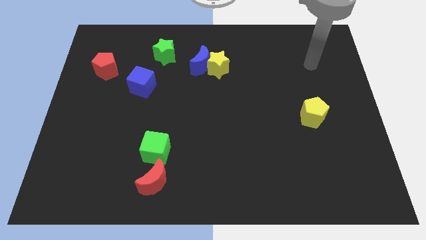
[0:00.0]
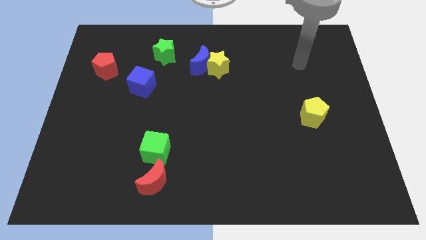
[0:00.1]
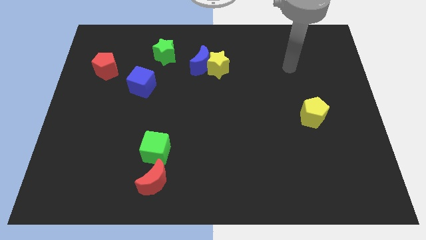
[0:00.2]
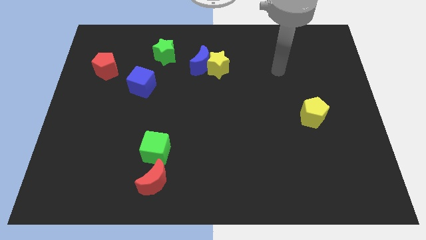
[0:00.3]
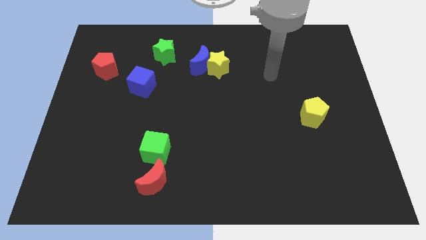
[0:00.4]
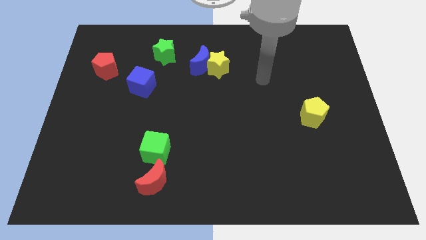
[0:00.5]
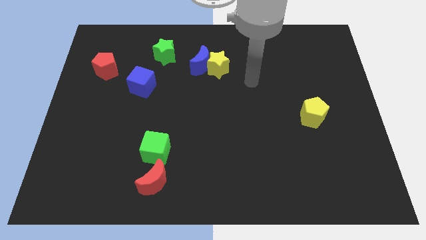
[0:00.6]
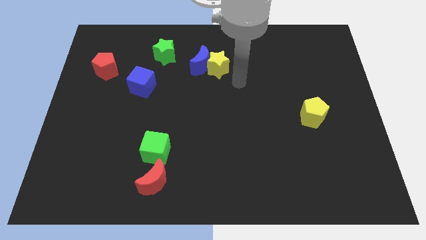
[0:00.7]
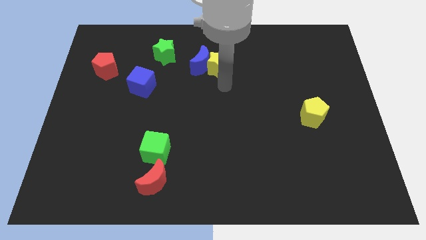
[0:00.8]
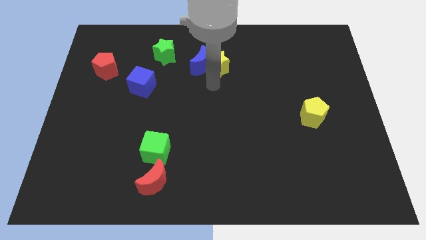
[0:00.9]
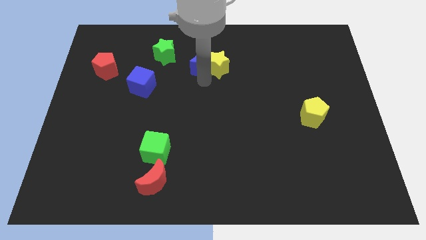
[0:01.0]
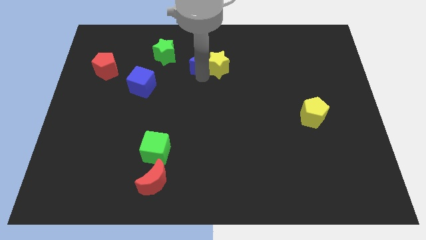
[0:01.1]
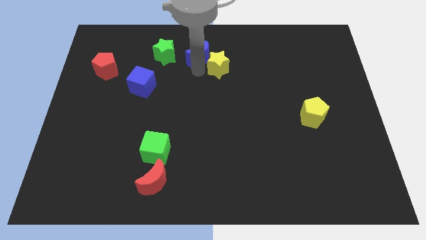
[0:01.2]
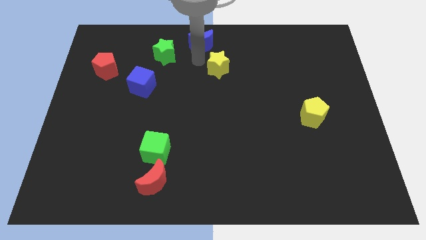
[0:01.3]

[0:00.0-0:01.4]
move the yellow star away from the blue moon

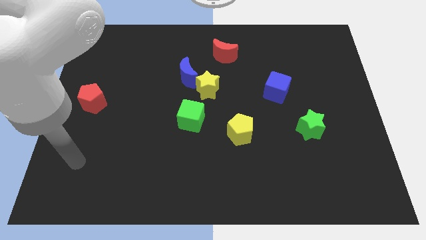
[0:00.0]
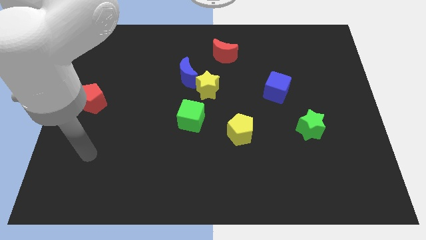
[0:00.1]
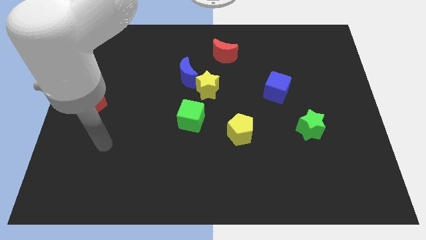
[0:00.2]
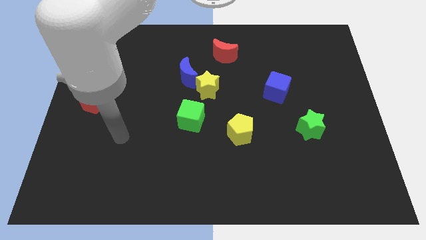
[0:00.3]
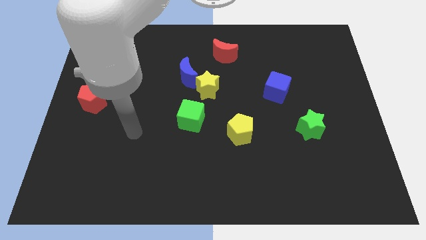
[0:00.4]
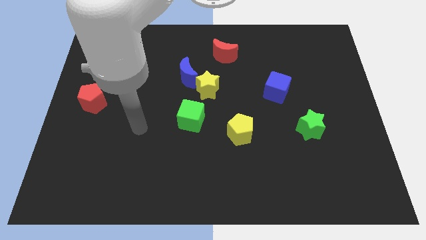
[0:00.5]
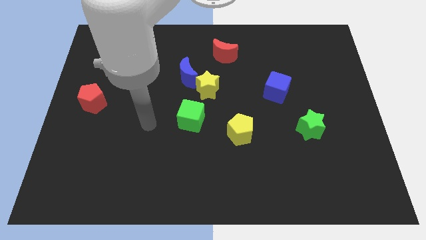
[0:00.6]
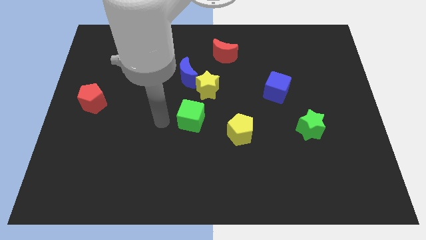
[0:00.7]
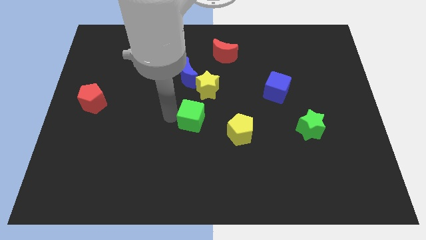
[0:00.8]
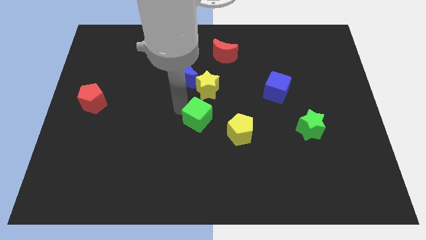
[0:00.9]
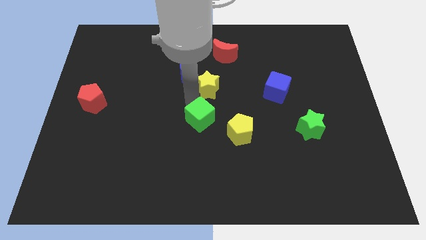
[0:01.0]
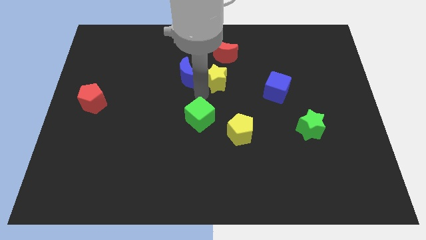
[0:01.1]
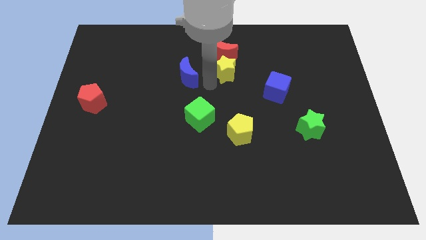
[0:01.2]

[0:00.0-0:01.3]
pull the blue moon apart from the yellow star

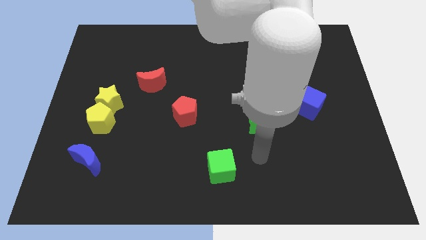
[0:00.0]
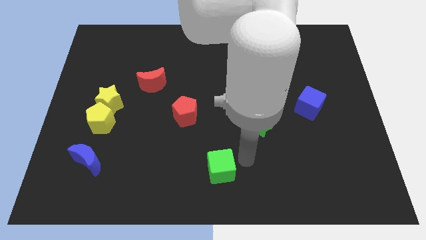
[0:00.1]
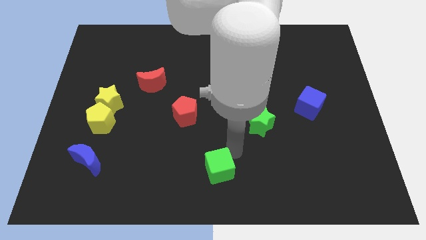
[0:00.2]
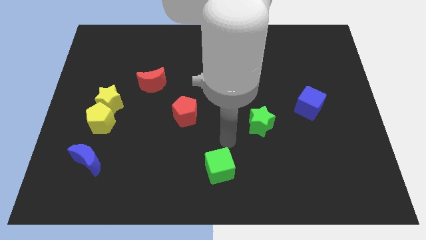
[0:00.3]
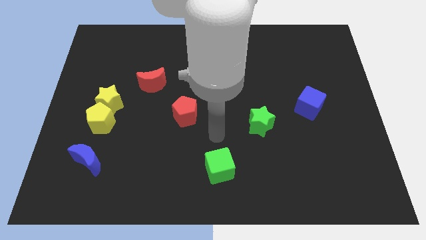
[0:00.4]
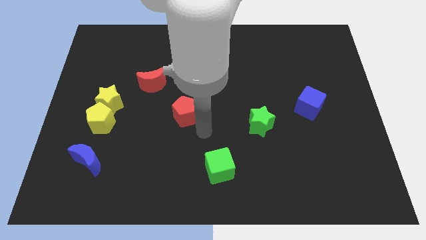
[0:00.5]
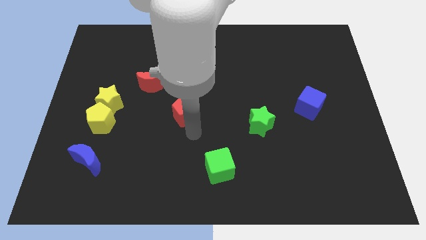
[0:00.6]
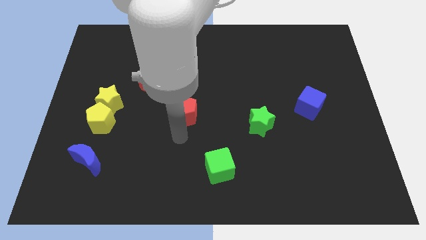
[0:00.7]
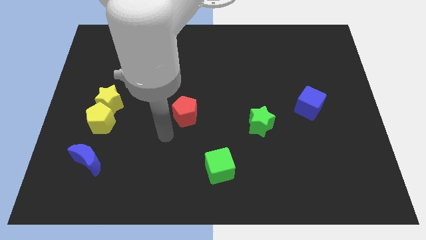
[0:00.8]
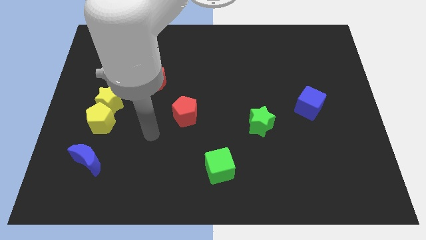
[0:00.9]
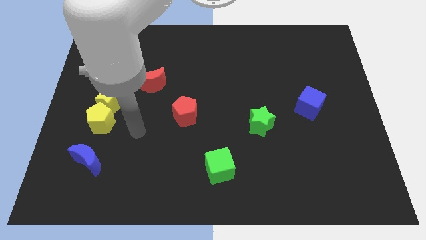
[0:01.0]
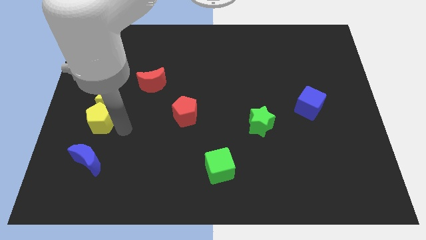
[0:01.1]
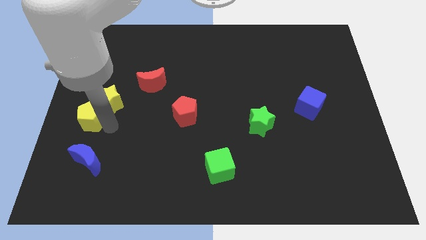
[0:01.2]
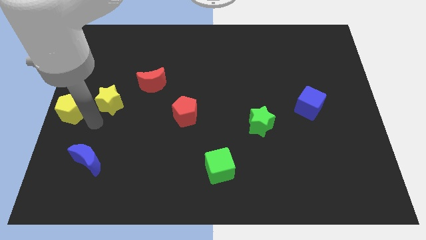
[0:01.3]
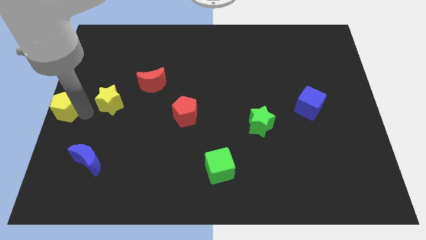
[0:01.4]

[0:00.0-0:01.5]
separate the yellow star from the yellow pentagon

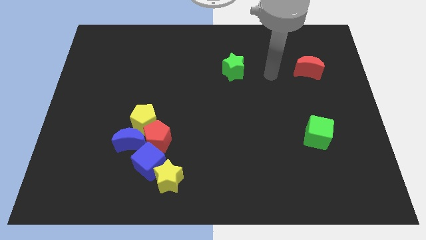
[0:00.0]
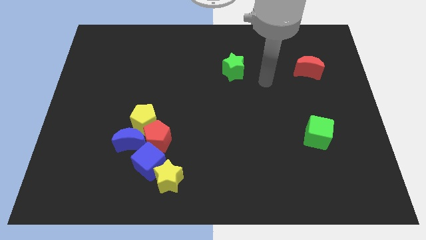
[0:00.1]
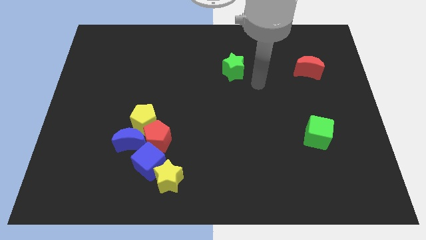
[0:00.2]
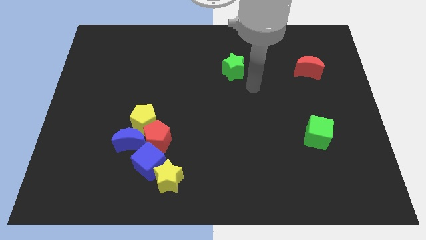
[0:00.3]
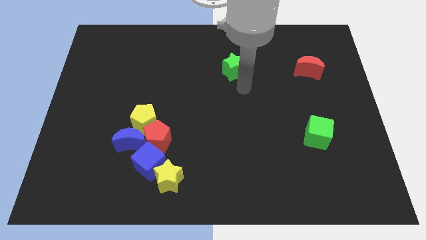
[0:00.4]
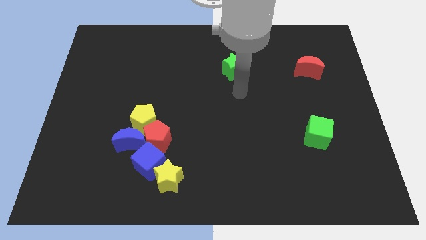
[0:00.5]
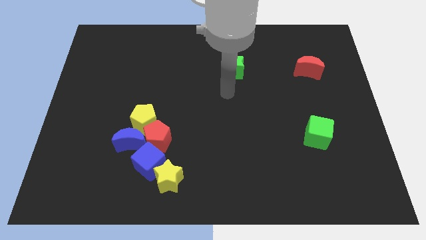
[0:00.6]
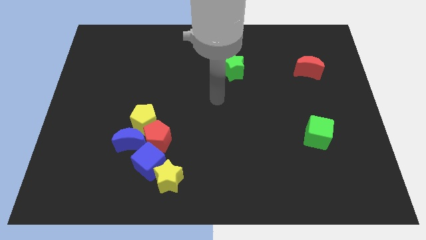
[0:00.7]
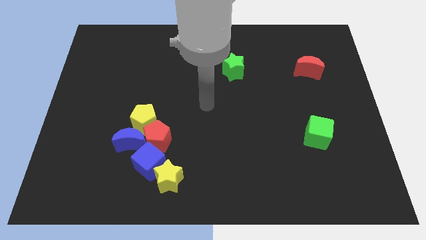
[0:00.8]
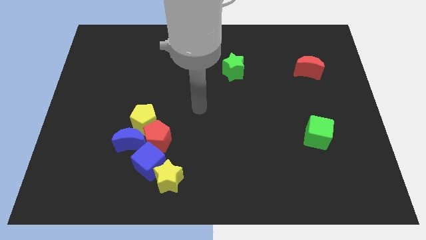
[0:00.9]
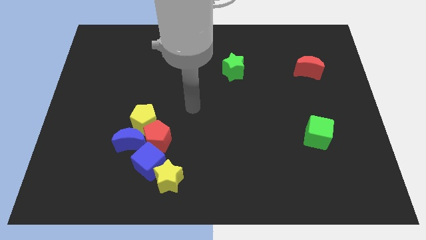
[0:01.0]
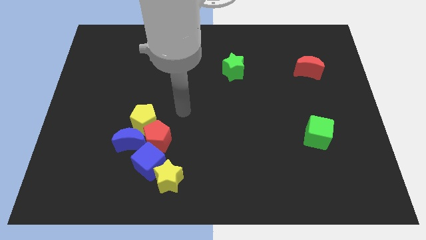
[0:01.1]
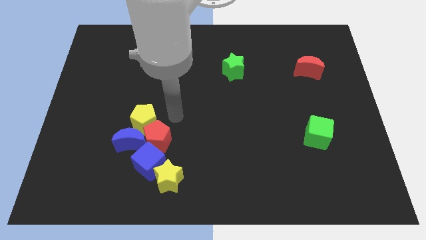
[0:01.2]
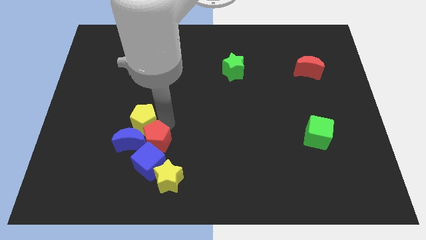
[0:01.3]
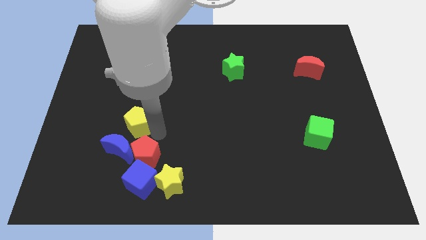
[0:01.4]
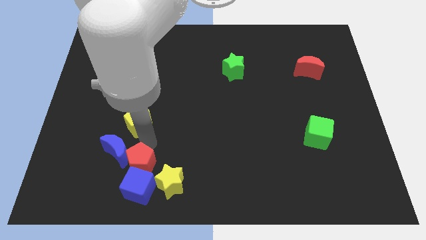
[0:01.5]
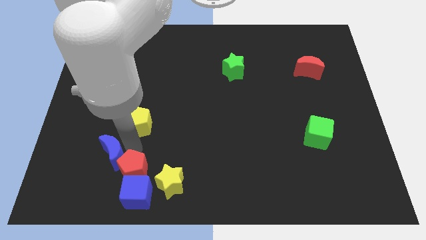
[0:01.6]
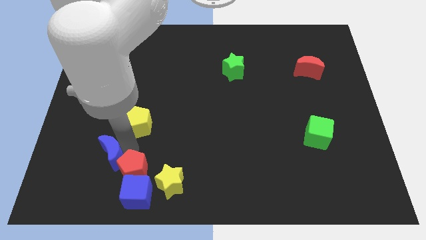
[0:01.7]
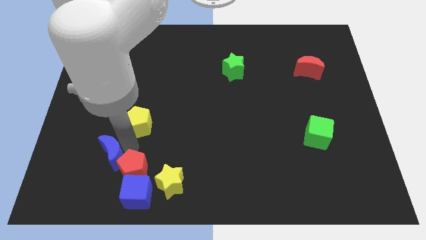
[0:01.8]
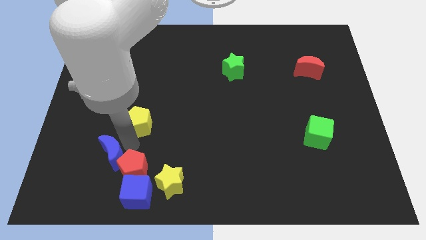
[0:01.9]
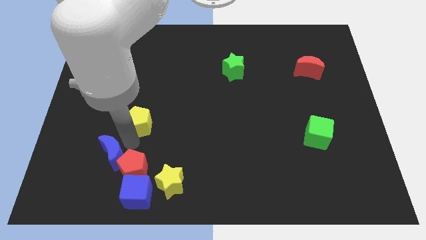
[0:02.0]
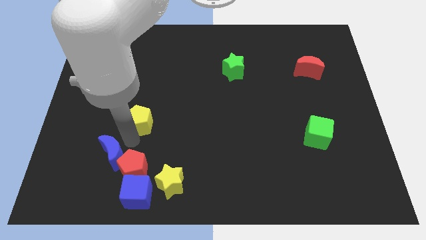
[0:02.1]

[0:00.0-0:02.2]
separate the yellow pentagon from the red pentagon and blue moon

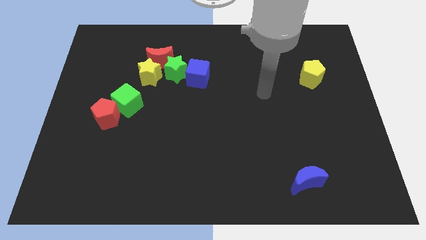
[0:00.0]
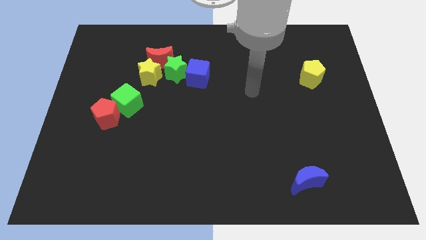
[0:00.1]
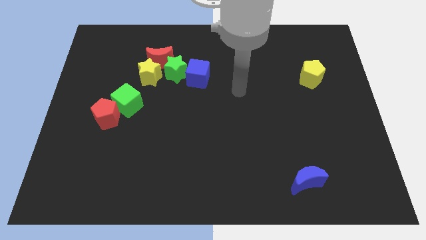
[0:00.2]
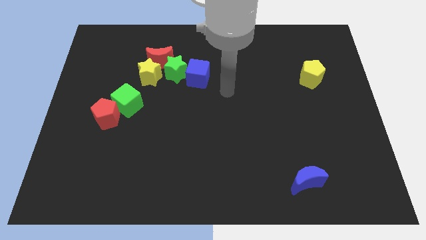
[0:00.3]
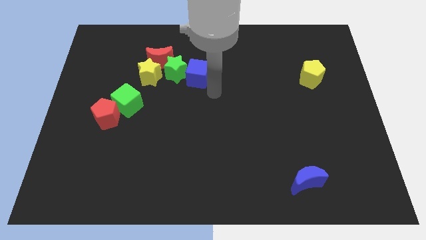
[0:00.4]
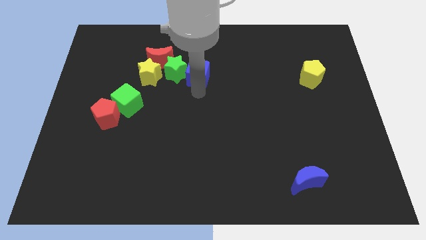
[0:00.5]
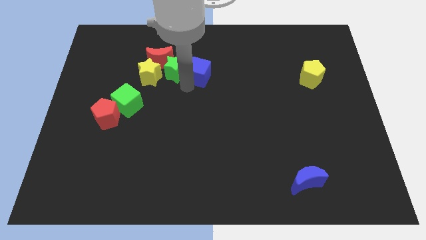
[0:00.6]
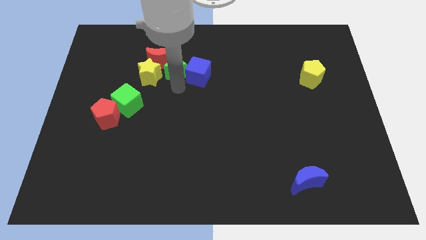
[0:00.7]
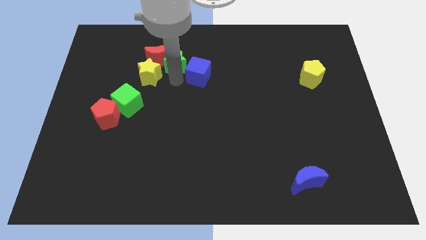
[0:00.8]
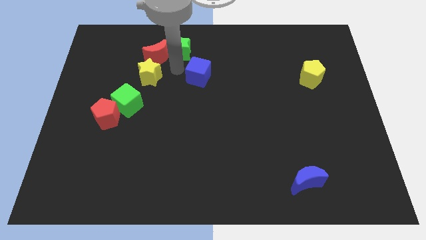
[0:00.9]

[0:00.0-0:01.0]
pull the blue cube apart from the green star

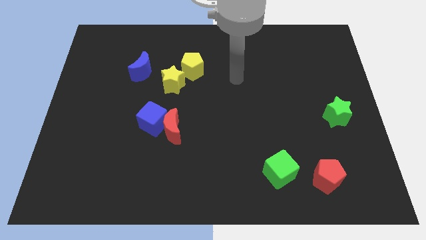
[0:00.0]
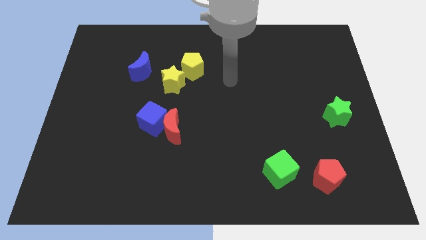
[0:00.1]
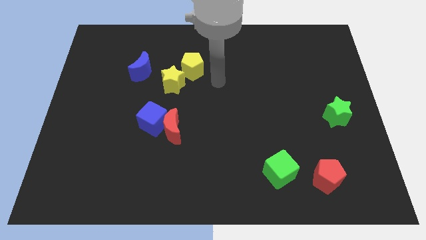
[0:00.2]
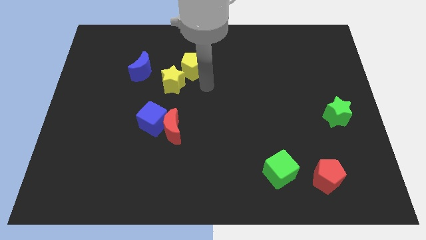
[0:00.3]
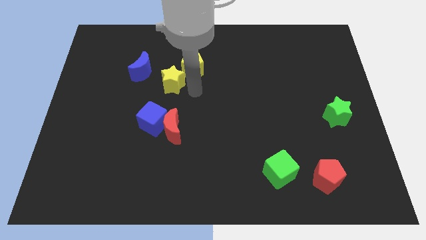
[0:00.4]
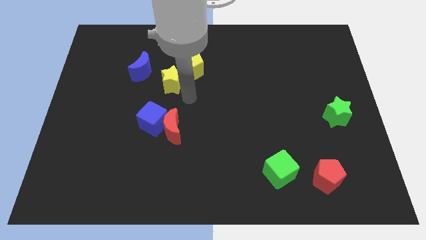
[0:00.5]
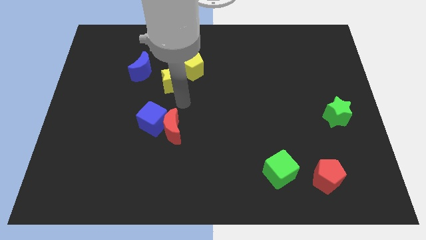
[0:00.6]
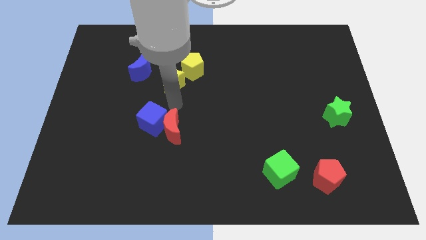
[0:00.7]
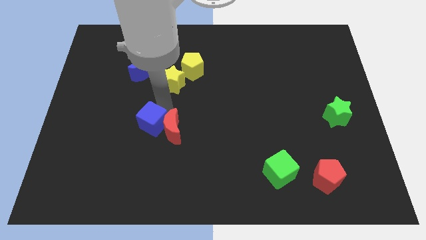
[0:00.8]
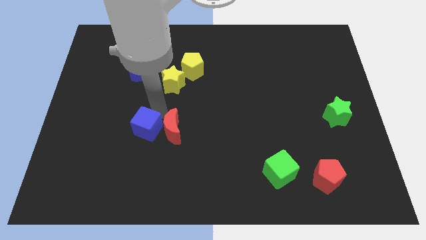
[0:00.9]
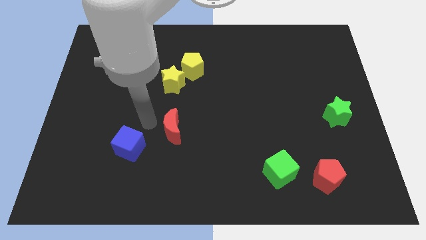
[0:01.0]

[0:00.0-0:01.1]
move the red moon away from the blue cube

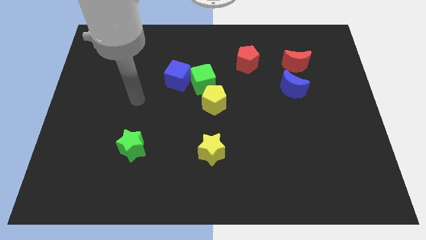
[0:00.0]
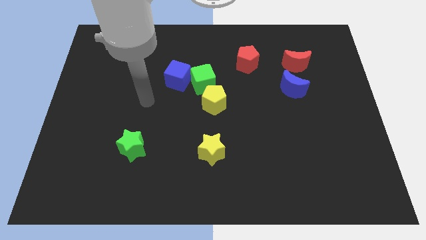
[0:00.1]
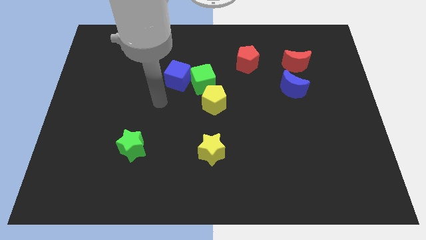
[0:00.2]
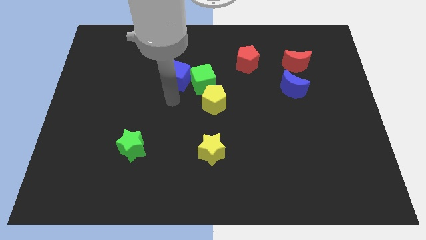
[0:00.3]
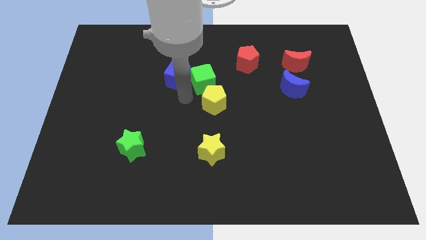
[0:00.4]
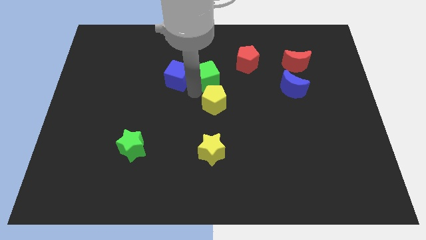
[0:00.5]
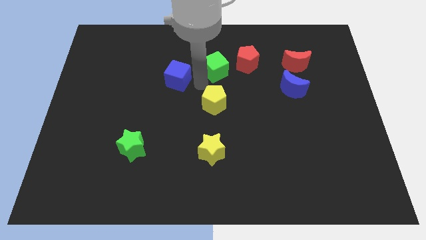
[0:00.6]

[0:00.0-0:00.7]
separate the blue cube from the green cube

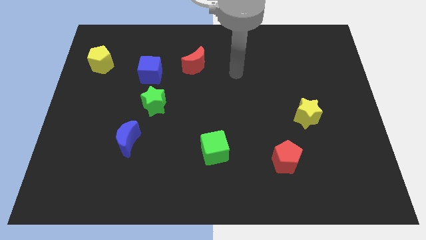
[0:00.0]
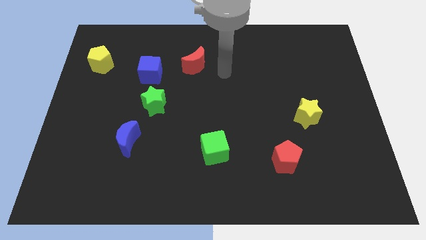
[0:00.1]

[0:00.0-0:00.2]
separate the blue cube from the green star
